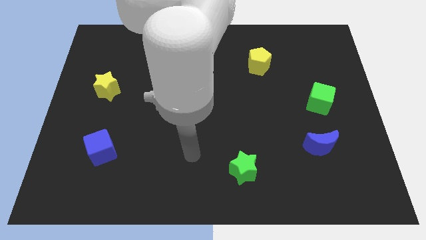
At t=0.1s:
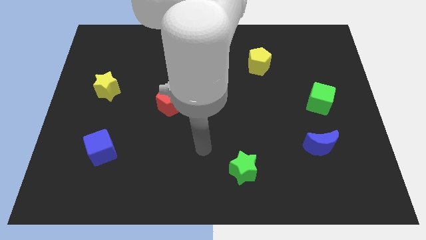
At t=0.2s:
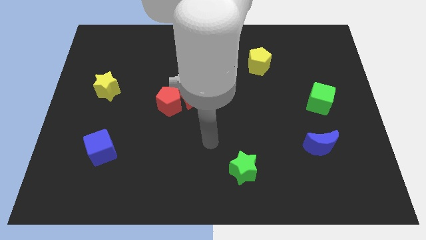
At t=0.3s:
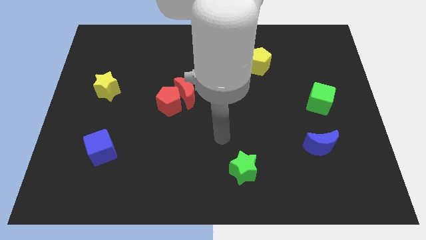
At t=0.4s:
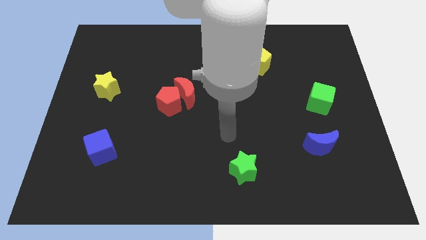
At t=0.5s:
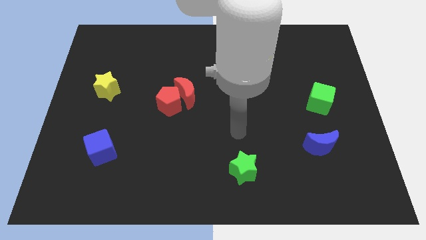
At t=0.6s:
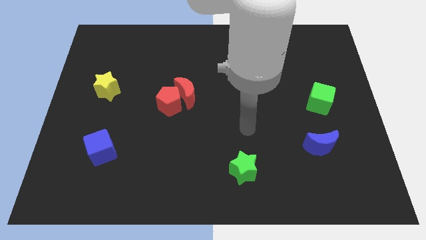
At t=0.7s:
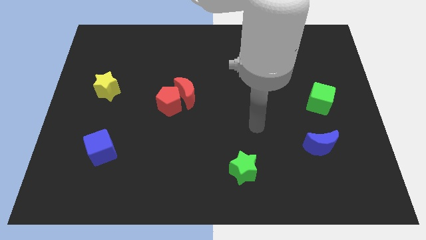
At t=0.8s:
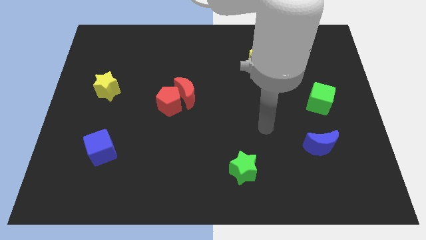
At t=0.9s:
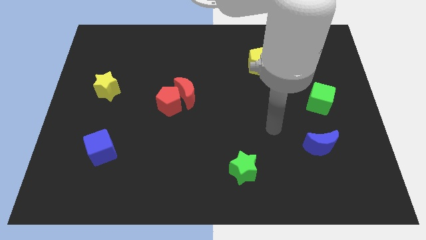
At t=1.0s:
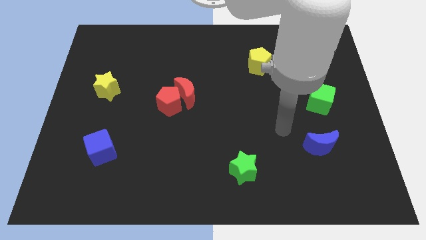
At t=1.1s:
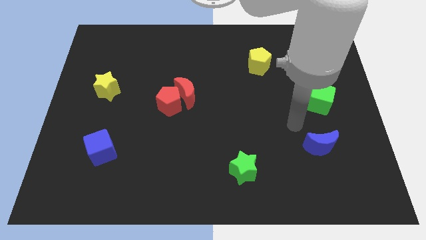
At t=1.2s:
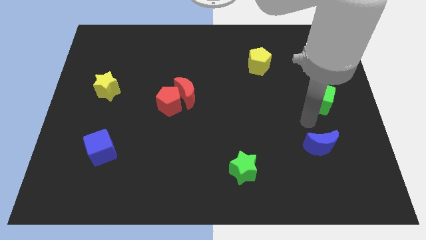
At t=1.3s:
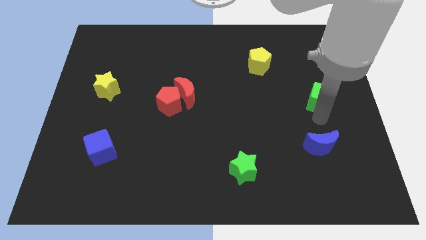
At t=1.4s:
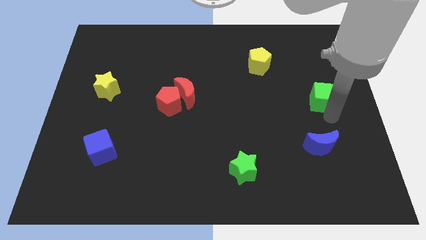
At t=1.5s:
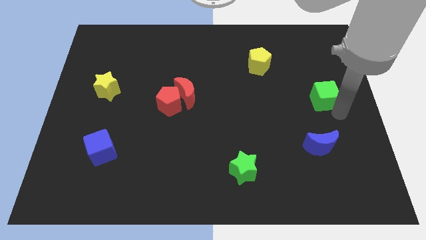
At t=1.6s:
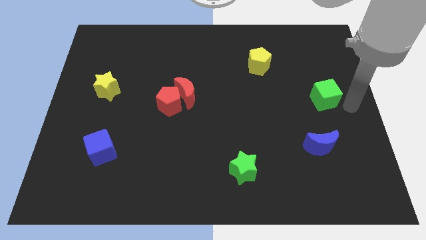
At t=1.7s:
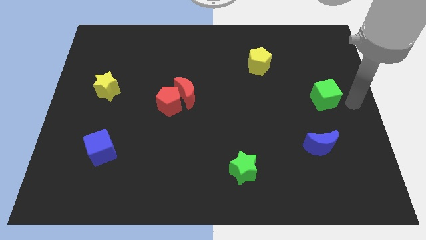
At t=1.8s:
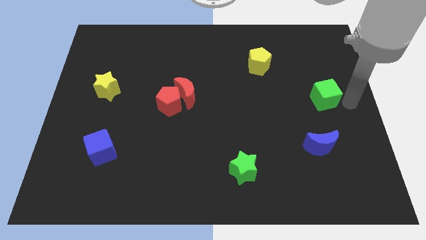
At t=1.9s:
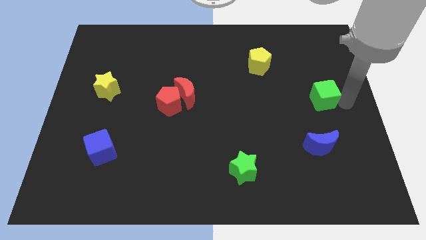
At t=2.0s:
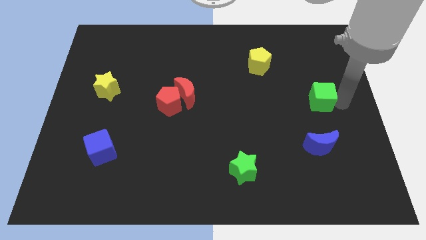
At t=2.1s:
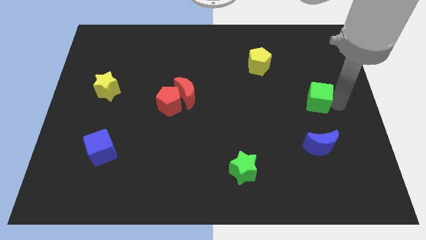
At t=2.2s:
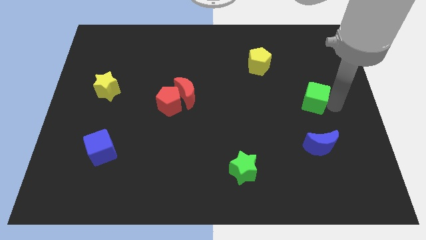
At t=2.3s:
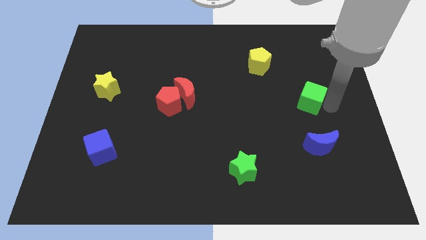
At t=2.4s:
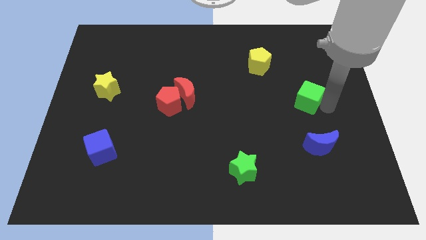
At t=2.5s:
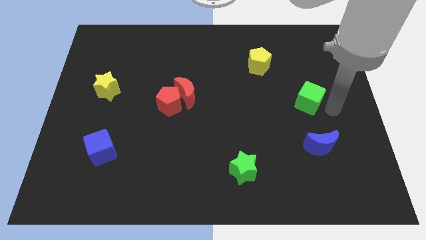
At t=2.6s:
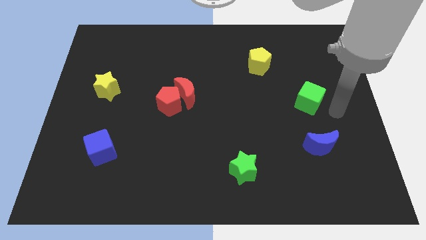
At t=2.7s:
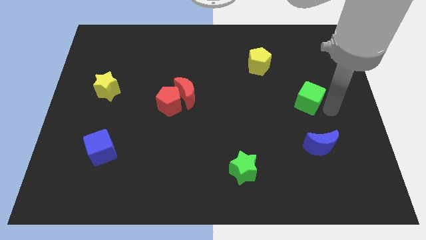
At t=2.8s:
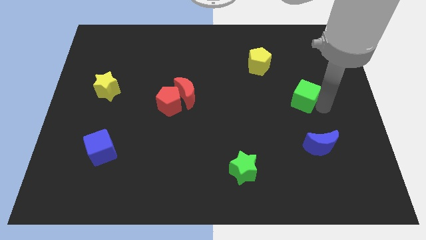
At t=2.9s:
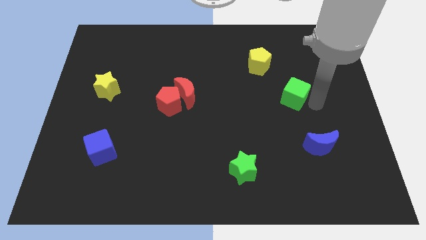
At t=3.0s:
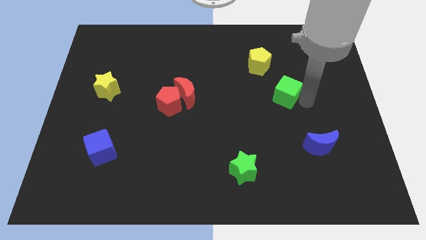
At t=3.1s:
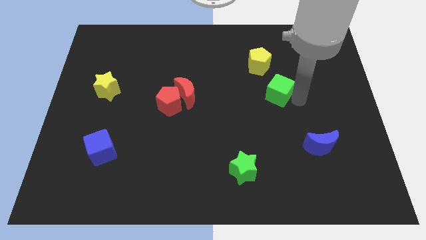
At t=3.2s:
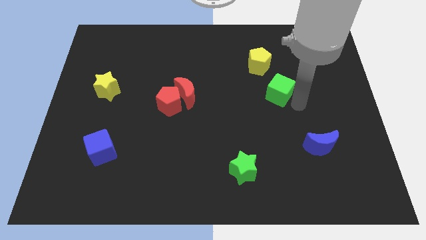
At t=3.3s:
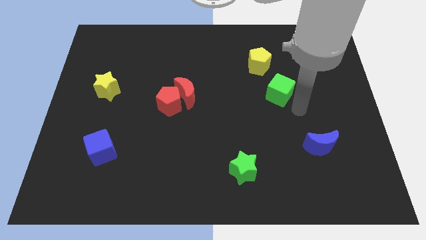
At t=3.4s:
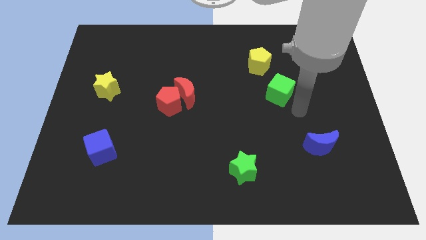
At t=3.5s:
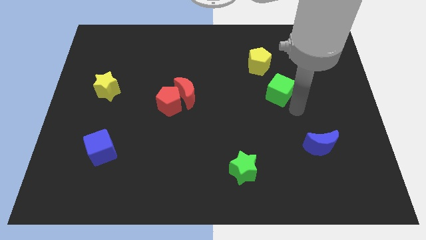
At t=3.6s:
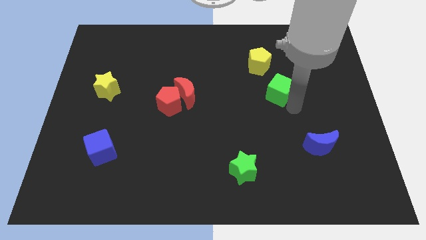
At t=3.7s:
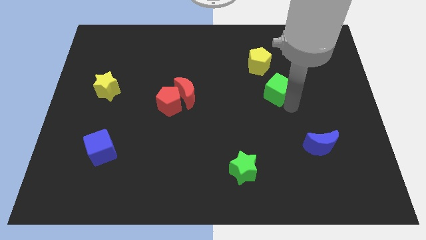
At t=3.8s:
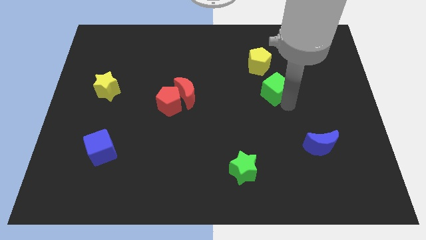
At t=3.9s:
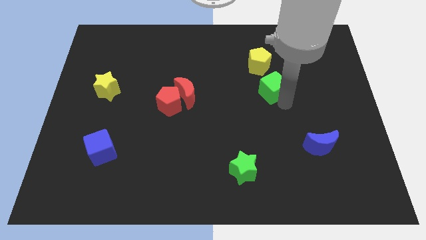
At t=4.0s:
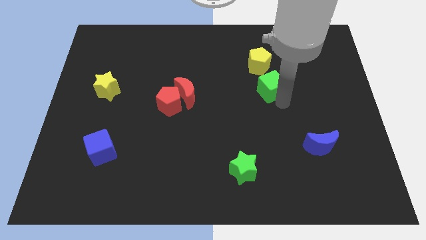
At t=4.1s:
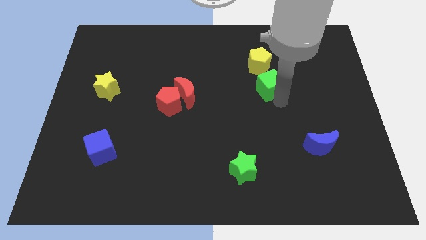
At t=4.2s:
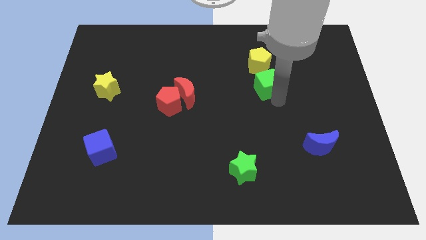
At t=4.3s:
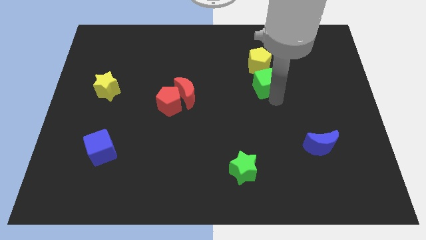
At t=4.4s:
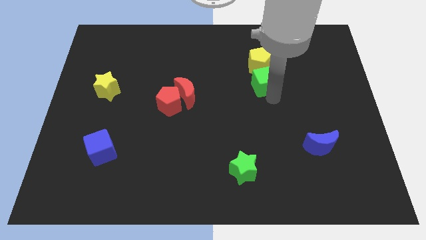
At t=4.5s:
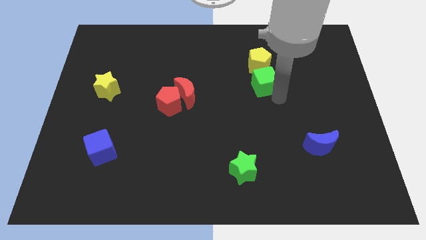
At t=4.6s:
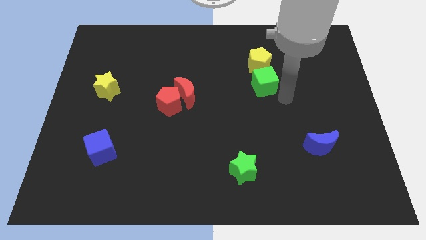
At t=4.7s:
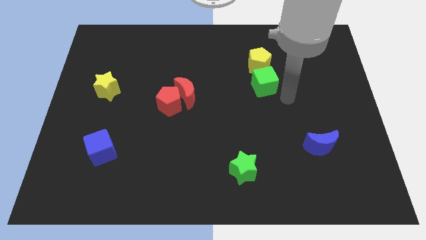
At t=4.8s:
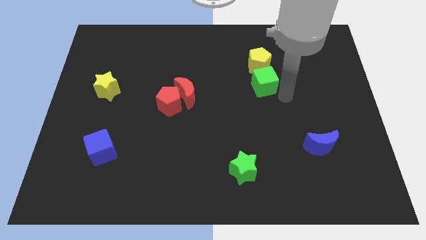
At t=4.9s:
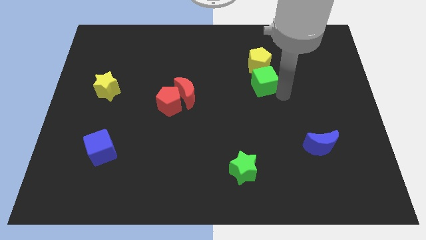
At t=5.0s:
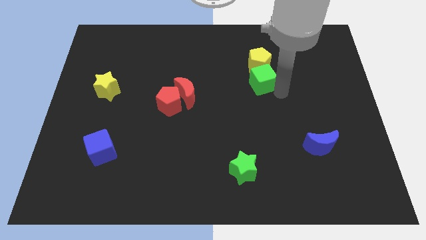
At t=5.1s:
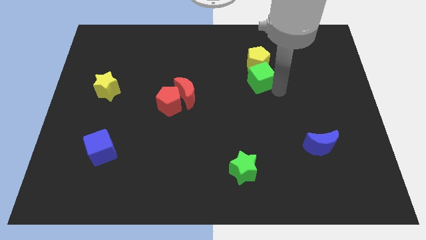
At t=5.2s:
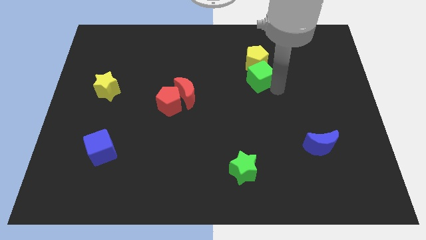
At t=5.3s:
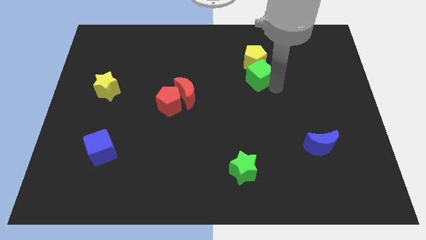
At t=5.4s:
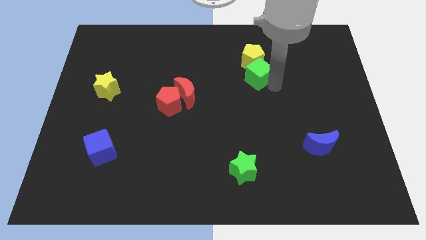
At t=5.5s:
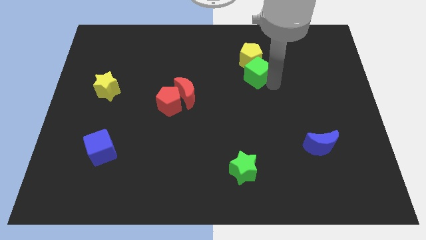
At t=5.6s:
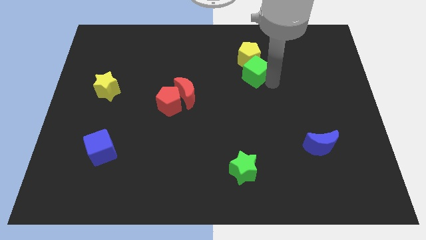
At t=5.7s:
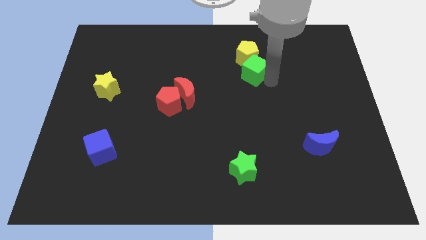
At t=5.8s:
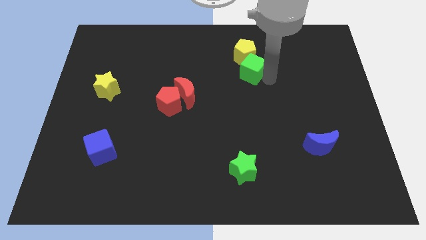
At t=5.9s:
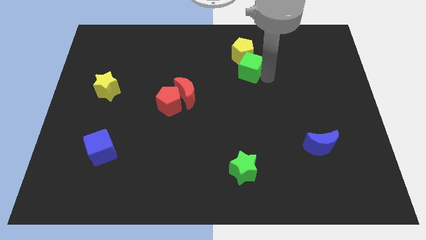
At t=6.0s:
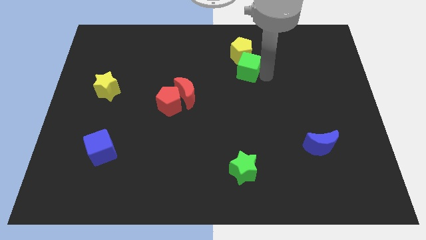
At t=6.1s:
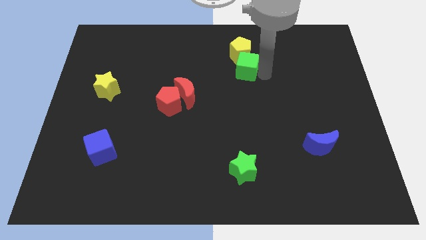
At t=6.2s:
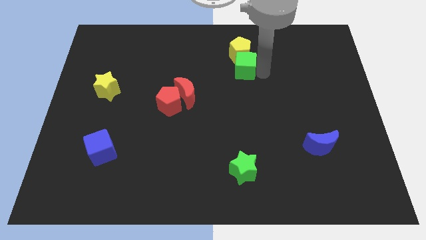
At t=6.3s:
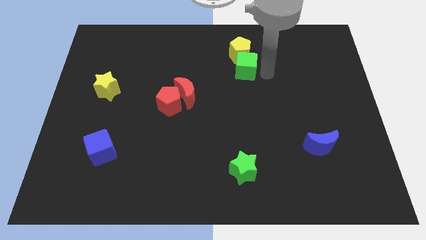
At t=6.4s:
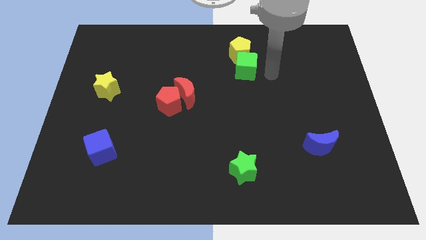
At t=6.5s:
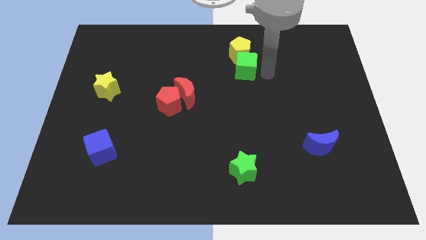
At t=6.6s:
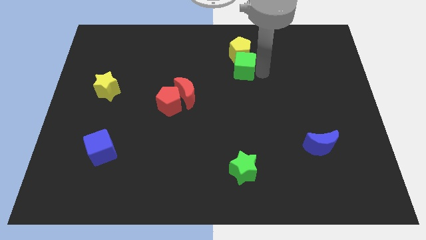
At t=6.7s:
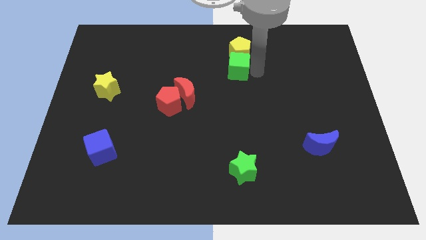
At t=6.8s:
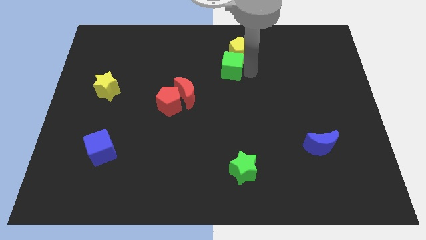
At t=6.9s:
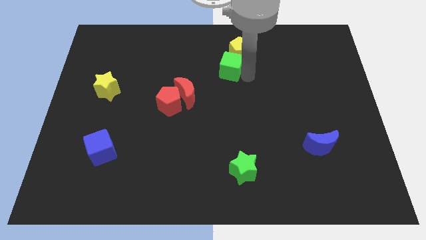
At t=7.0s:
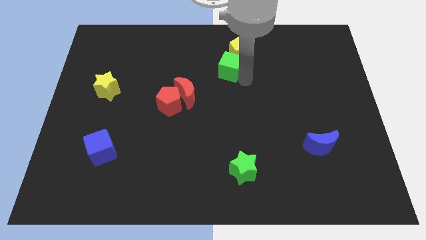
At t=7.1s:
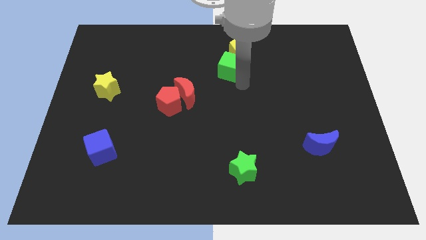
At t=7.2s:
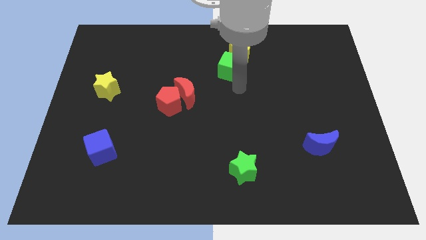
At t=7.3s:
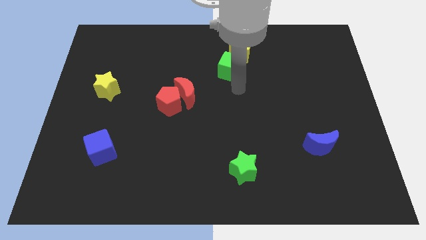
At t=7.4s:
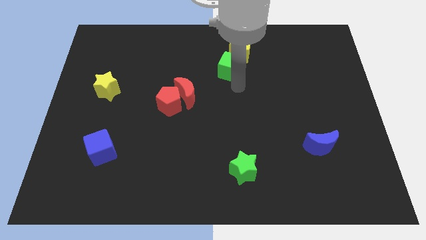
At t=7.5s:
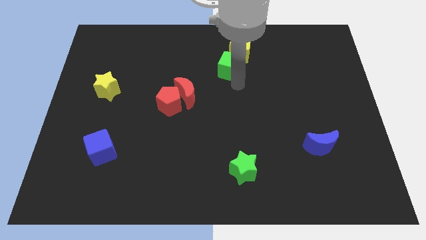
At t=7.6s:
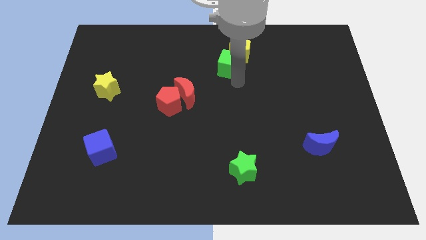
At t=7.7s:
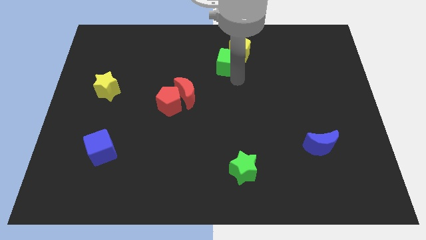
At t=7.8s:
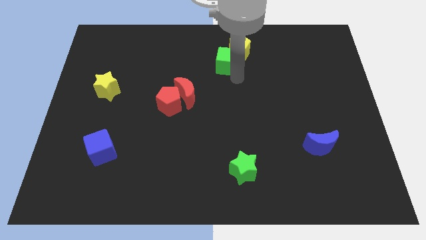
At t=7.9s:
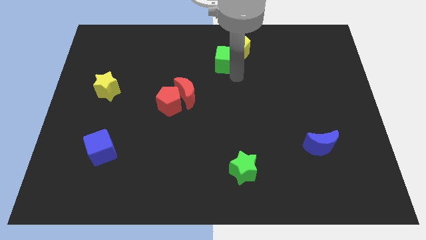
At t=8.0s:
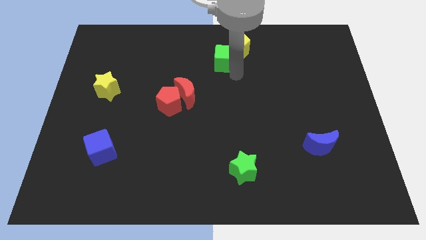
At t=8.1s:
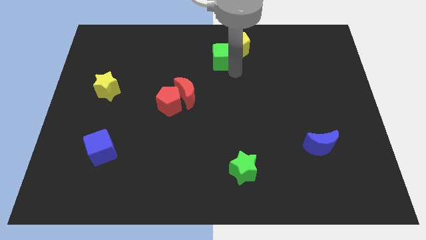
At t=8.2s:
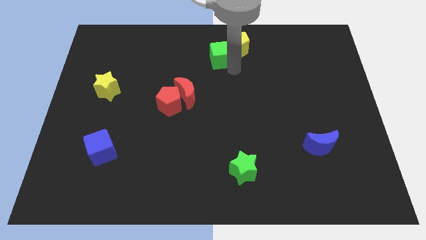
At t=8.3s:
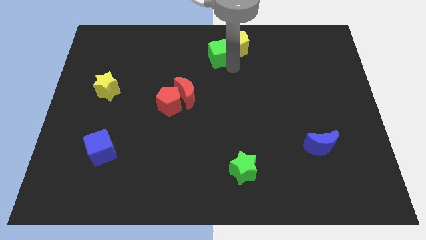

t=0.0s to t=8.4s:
move the green cube to the top side
